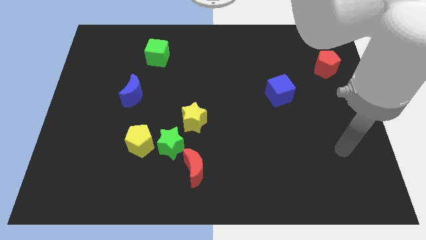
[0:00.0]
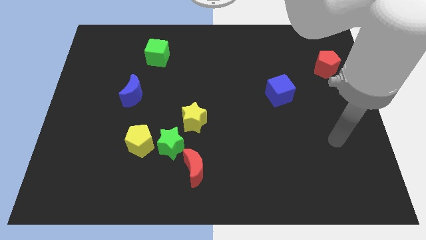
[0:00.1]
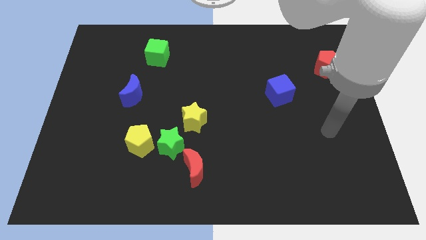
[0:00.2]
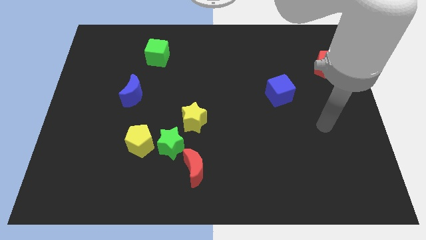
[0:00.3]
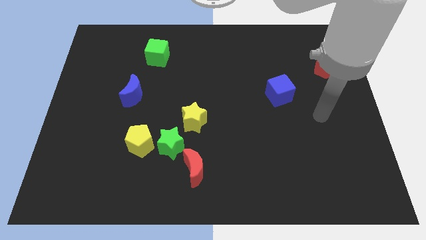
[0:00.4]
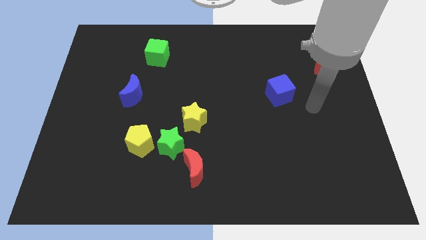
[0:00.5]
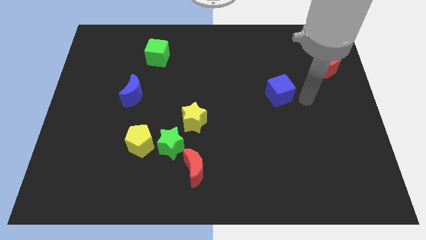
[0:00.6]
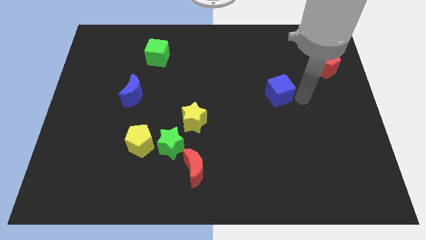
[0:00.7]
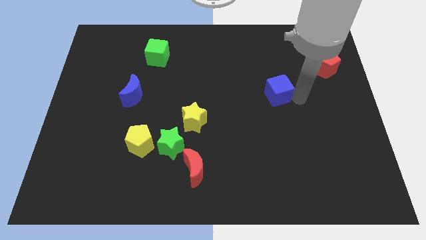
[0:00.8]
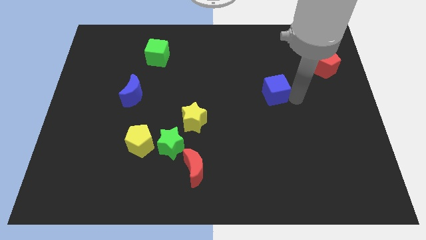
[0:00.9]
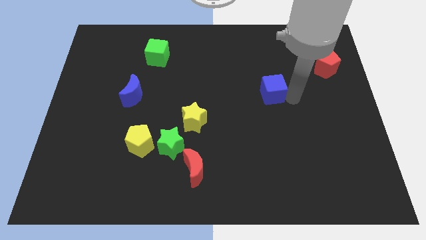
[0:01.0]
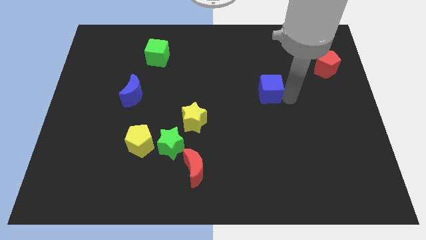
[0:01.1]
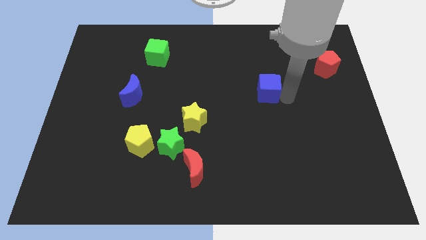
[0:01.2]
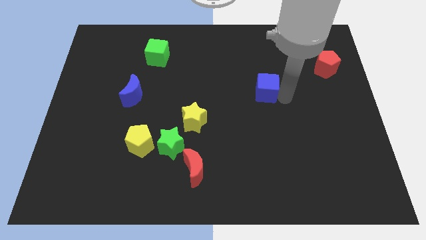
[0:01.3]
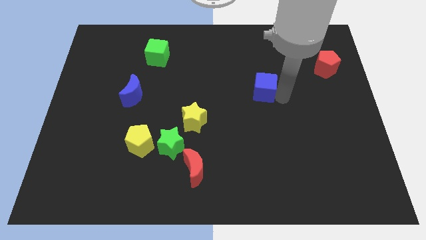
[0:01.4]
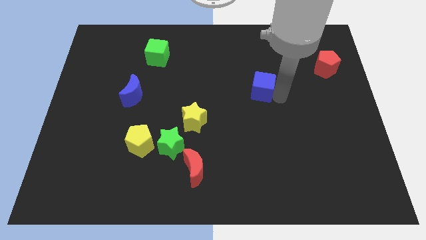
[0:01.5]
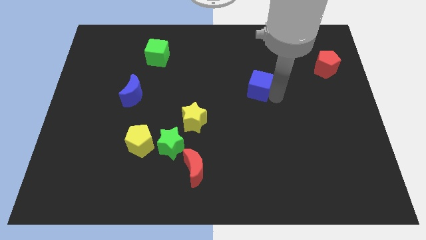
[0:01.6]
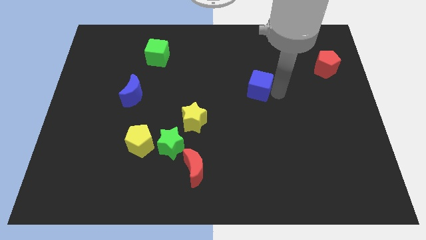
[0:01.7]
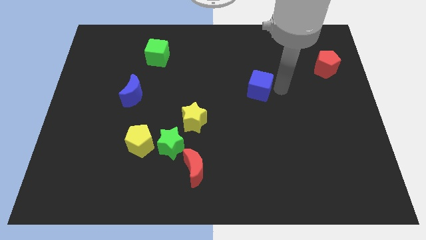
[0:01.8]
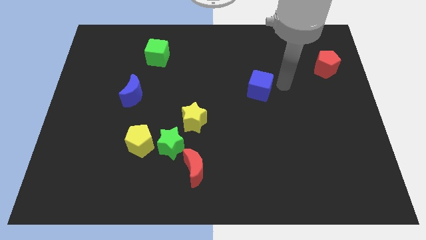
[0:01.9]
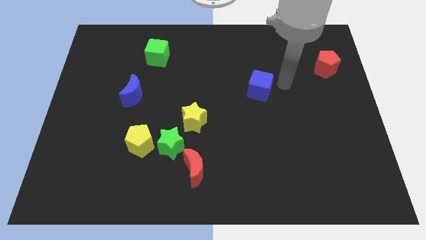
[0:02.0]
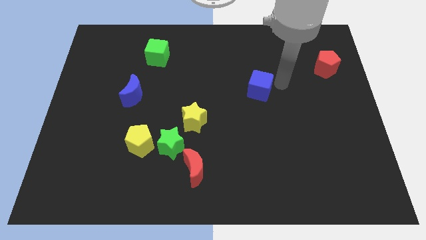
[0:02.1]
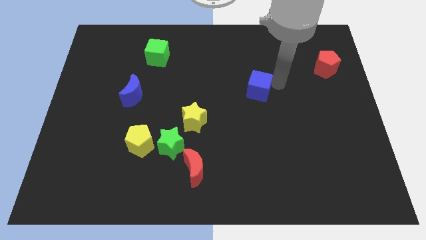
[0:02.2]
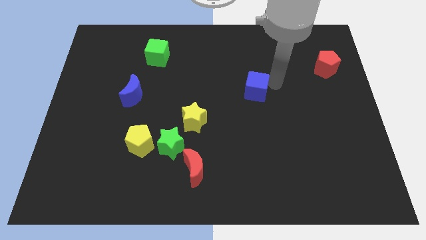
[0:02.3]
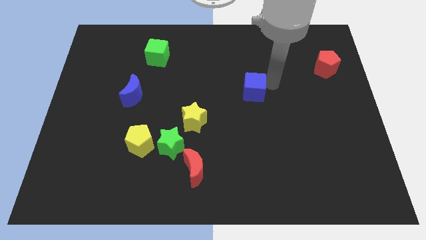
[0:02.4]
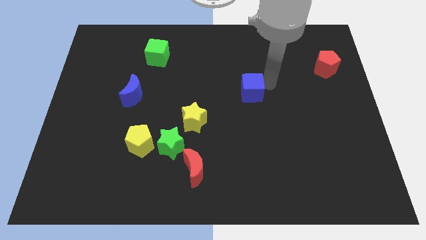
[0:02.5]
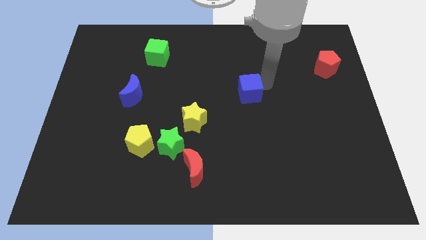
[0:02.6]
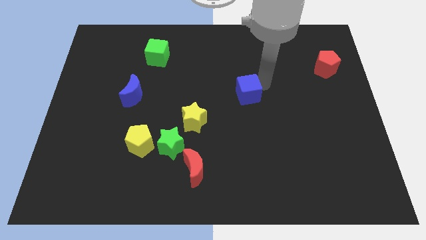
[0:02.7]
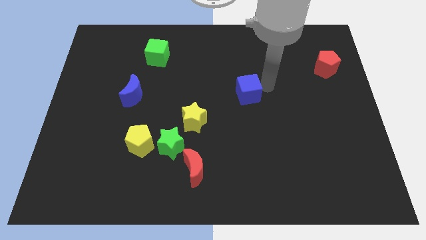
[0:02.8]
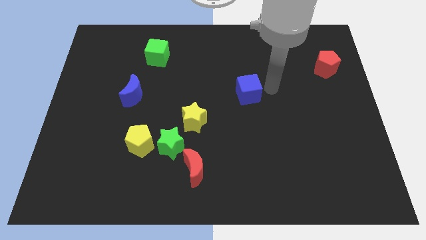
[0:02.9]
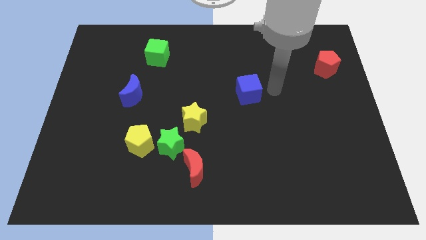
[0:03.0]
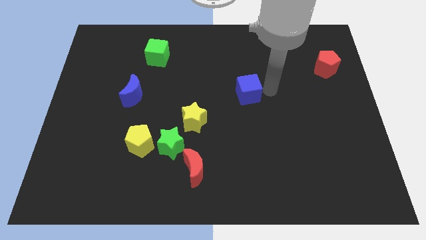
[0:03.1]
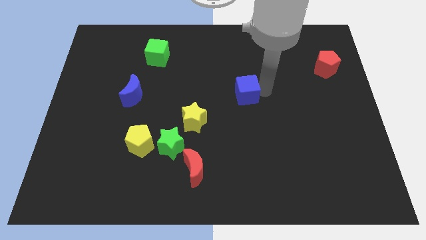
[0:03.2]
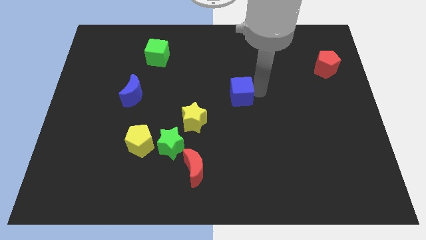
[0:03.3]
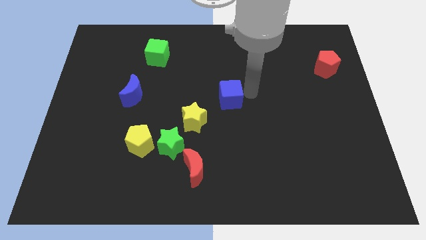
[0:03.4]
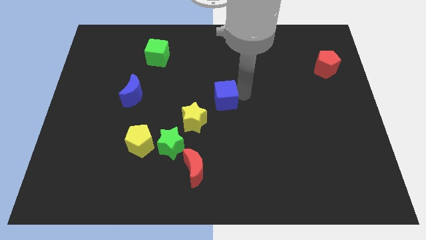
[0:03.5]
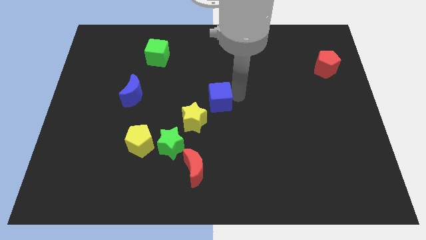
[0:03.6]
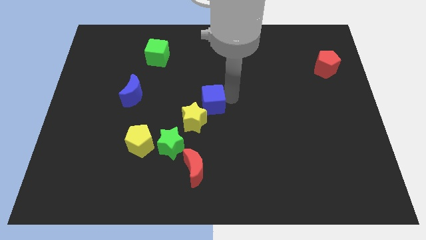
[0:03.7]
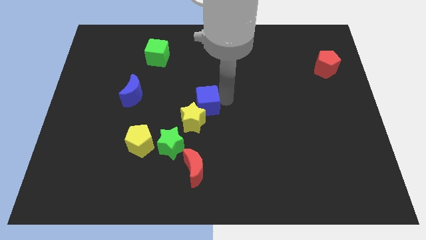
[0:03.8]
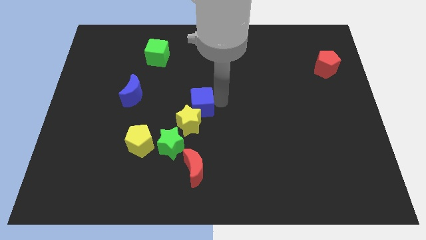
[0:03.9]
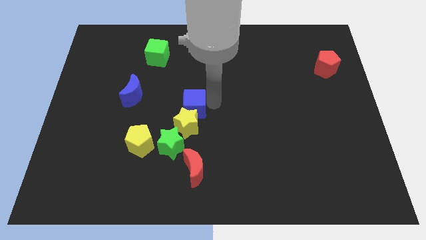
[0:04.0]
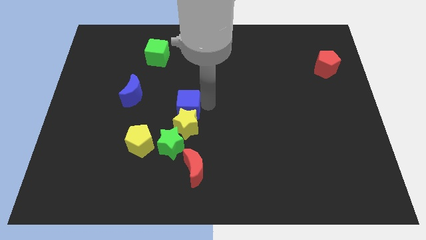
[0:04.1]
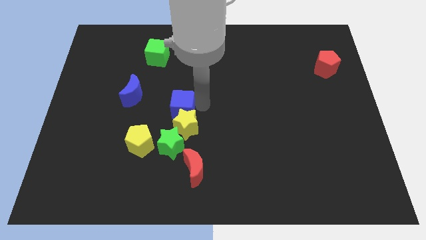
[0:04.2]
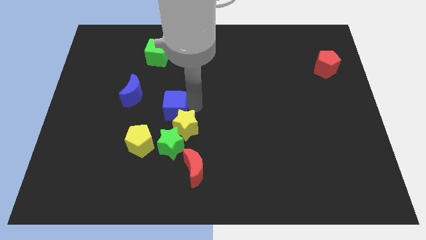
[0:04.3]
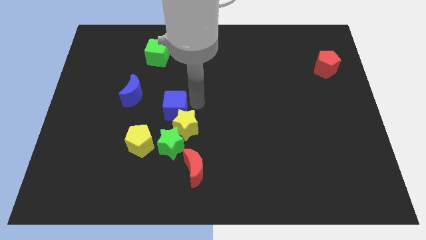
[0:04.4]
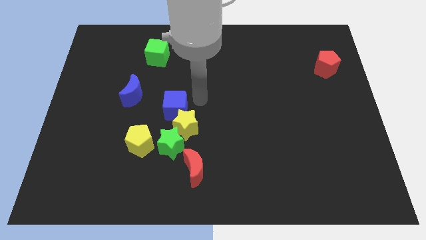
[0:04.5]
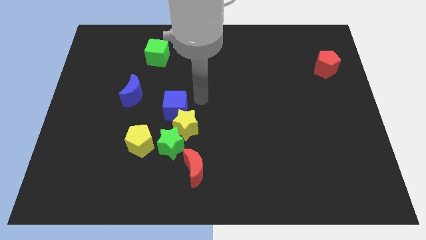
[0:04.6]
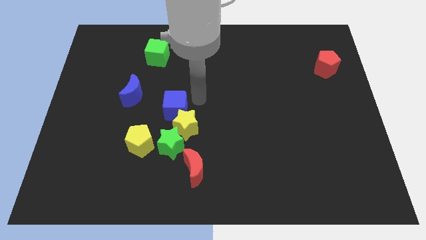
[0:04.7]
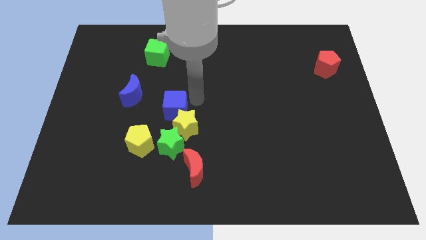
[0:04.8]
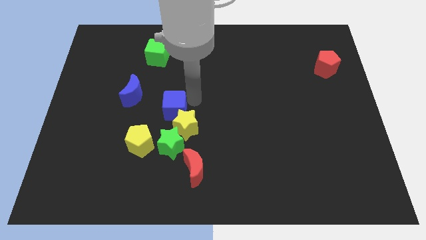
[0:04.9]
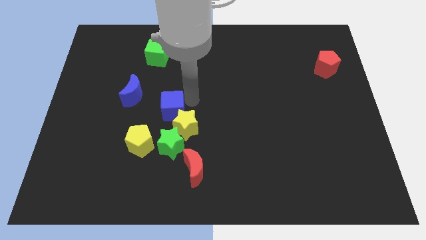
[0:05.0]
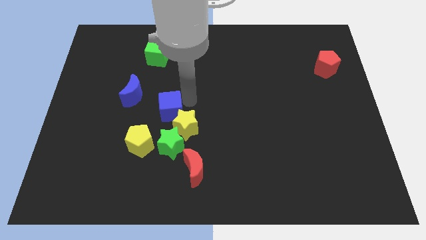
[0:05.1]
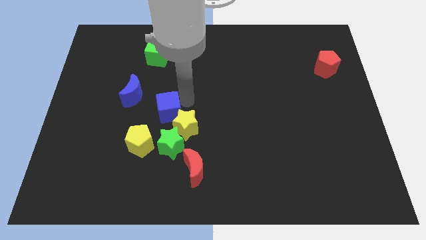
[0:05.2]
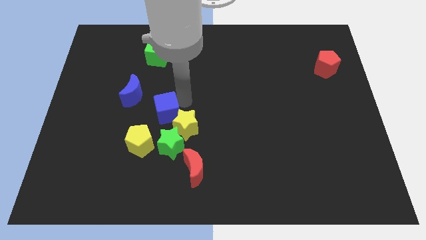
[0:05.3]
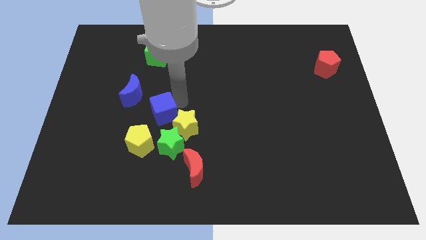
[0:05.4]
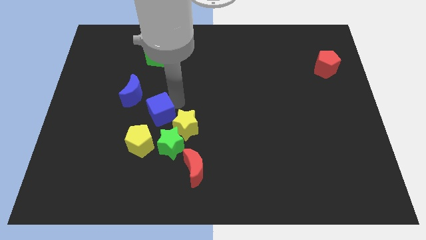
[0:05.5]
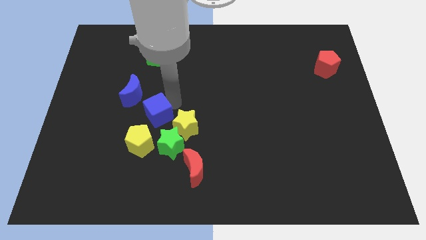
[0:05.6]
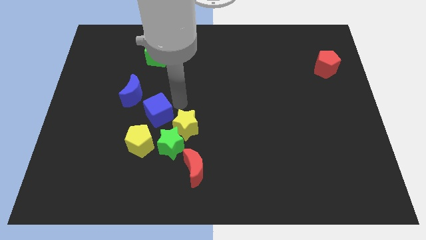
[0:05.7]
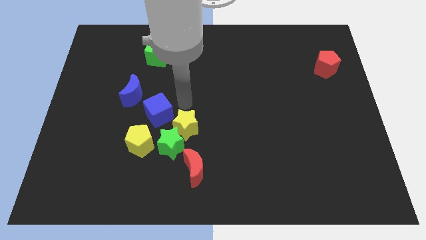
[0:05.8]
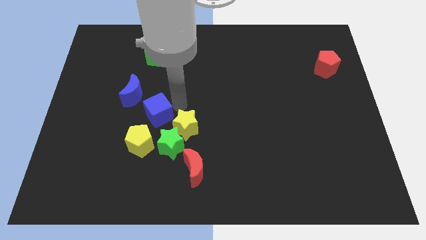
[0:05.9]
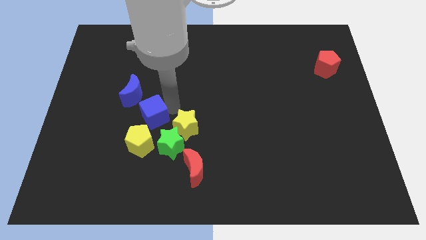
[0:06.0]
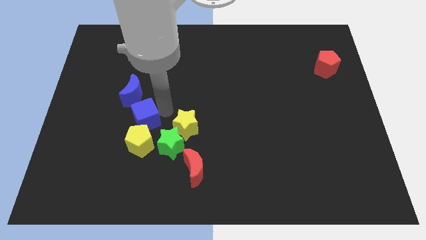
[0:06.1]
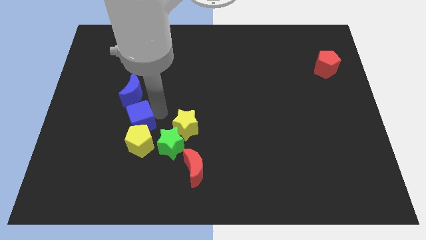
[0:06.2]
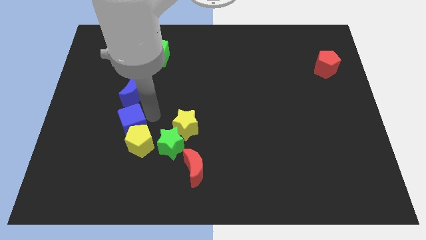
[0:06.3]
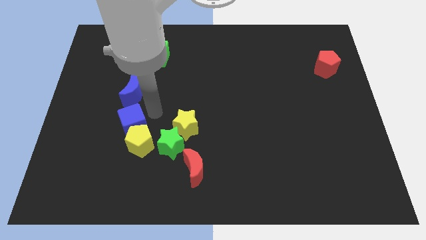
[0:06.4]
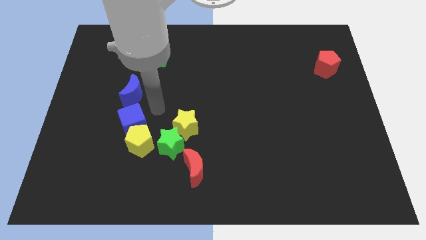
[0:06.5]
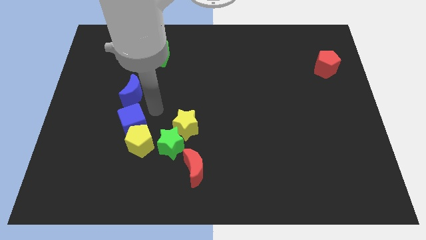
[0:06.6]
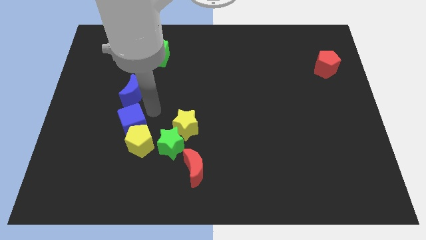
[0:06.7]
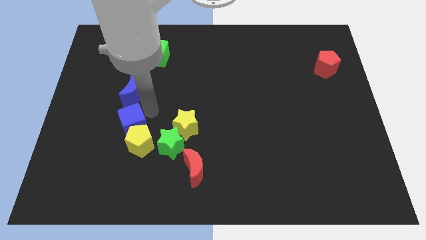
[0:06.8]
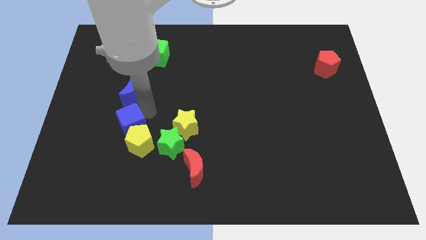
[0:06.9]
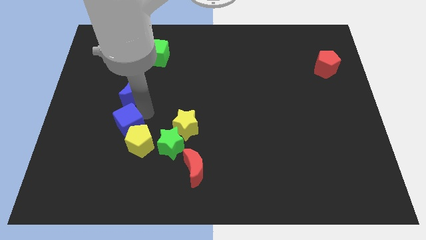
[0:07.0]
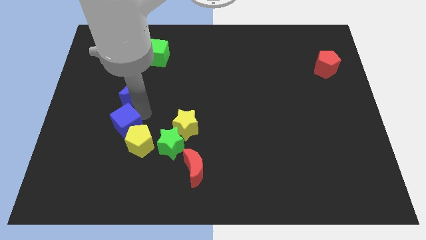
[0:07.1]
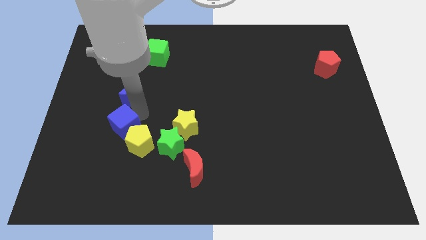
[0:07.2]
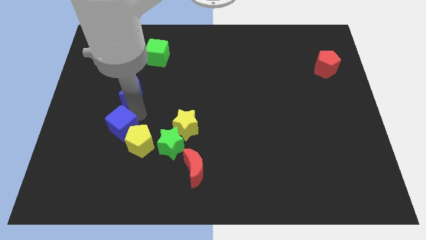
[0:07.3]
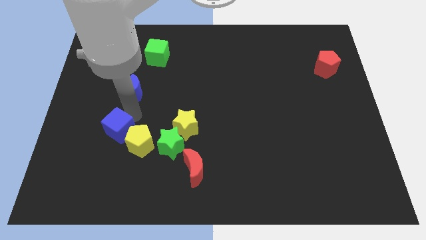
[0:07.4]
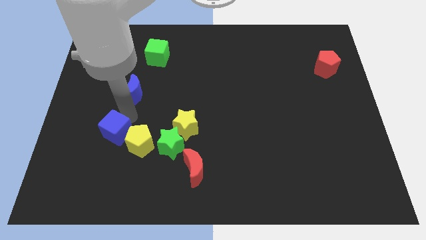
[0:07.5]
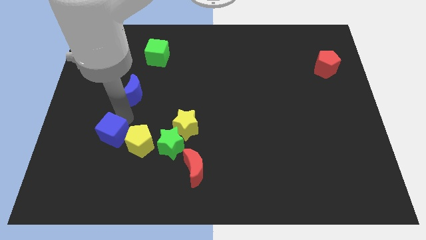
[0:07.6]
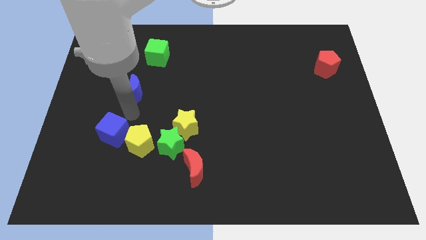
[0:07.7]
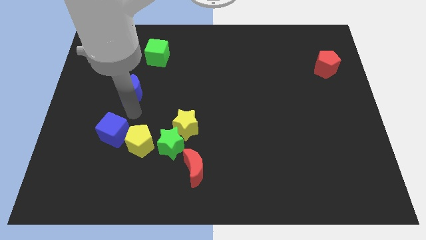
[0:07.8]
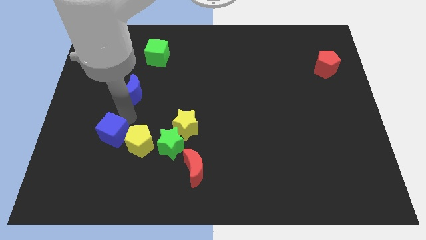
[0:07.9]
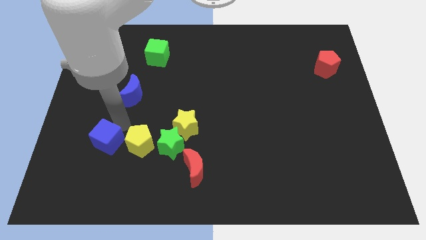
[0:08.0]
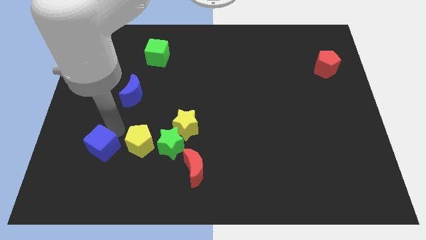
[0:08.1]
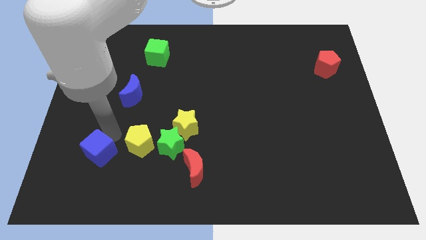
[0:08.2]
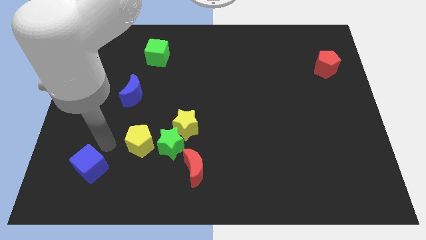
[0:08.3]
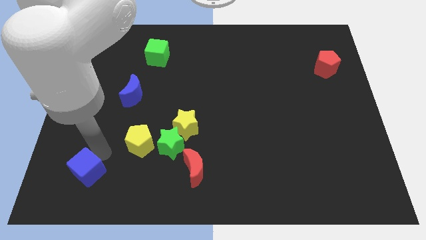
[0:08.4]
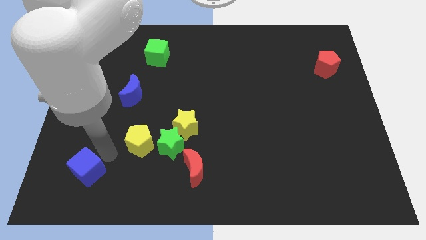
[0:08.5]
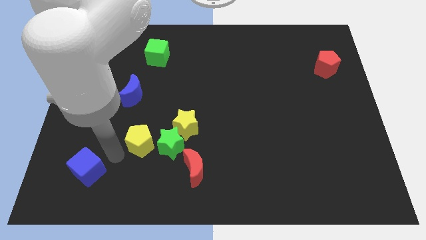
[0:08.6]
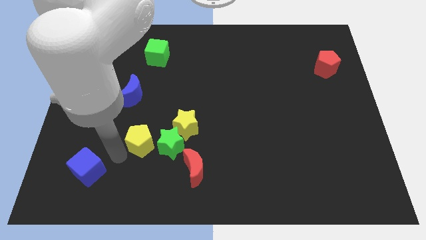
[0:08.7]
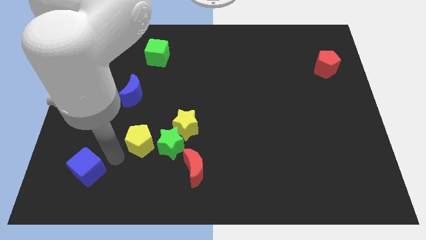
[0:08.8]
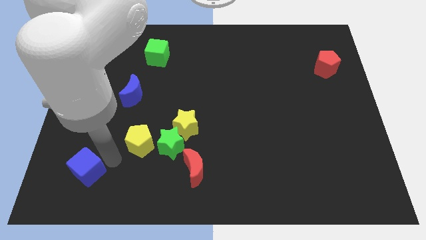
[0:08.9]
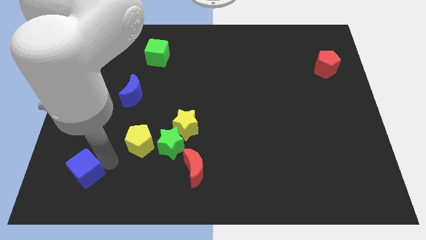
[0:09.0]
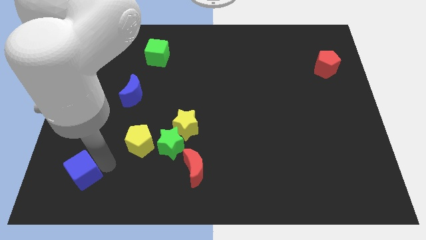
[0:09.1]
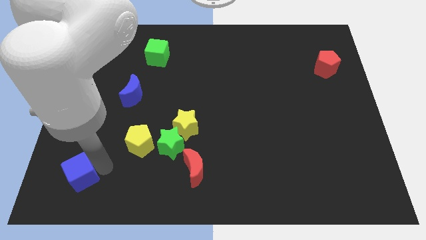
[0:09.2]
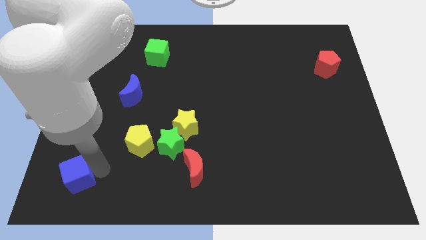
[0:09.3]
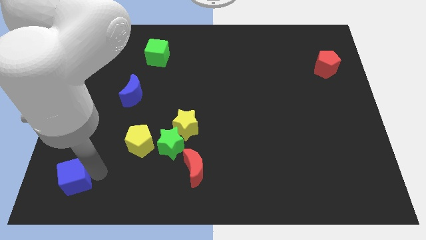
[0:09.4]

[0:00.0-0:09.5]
push the blue cube to the bottom left
